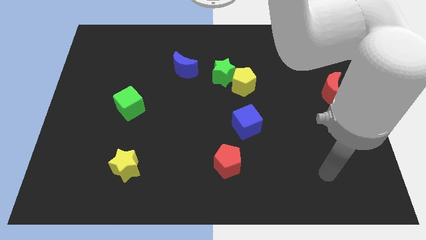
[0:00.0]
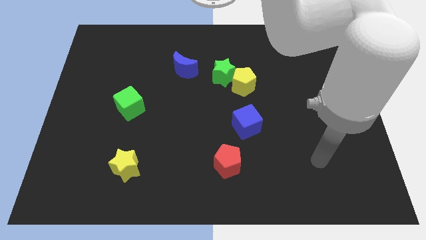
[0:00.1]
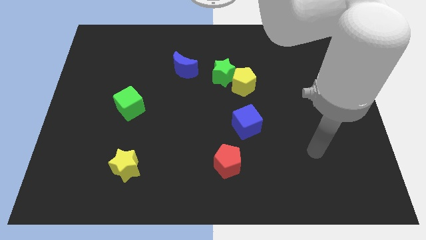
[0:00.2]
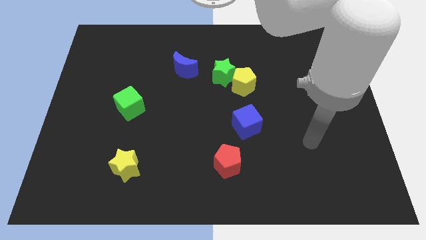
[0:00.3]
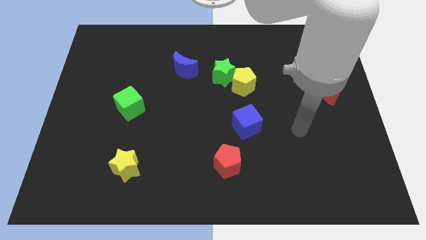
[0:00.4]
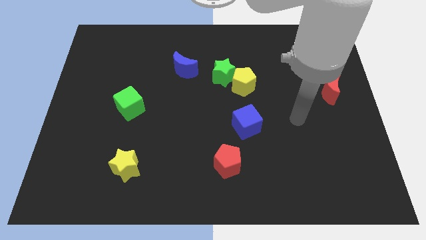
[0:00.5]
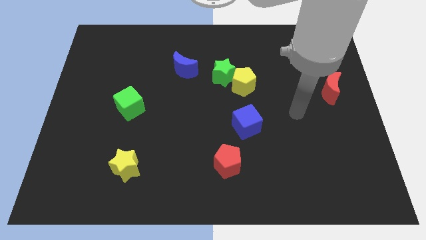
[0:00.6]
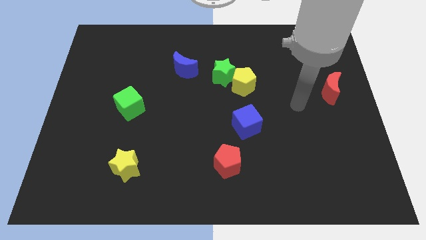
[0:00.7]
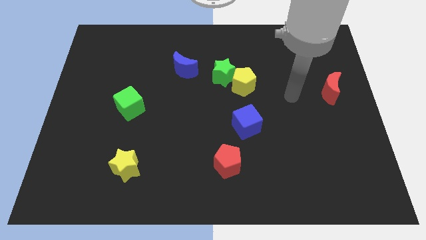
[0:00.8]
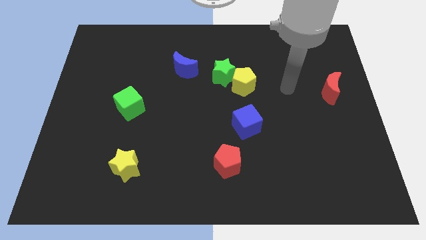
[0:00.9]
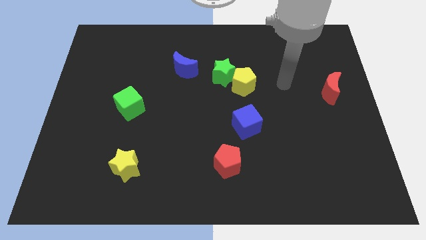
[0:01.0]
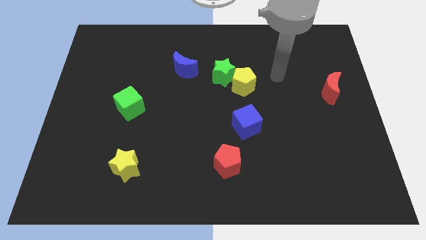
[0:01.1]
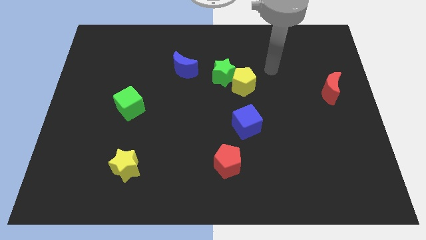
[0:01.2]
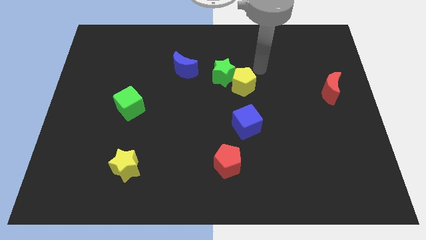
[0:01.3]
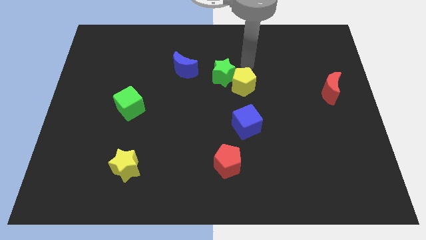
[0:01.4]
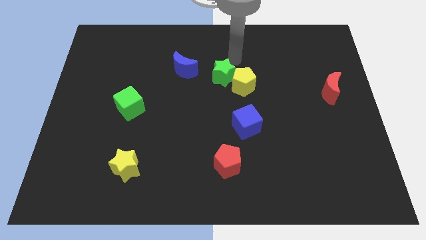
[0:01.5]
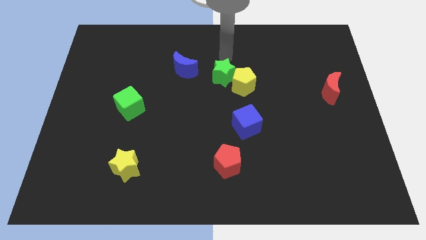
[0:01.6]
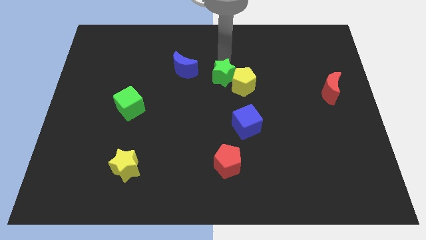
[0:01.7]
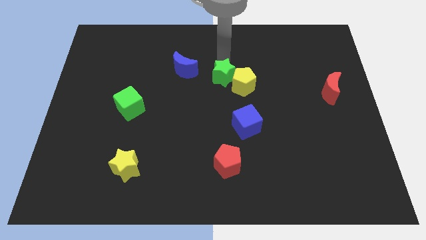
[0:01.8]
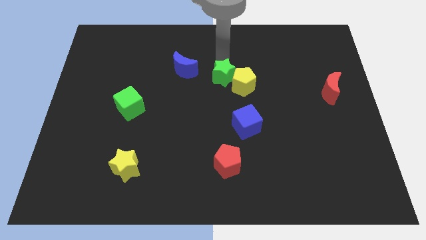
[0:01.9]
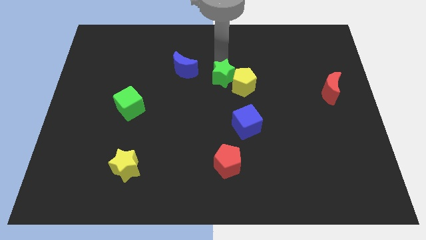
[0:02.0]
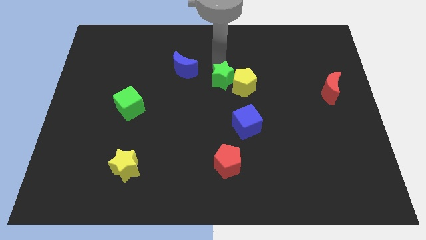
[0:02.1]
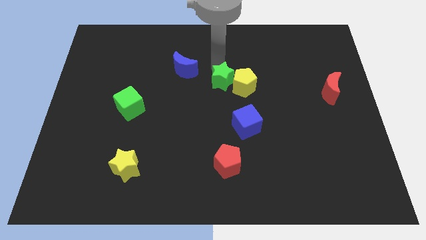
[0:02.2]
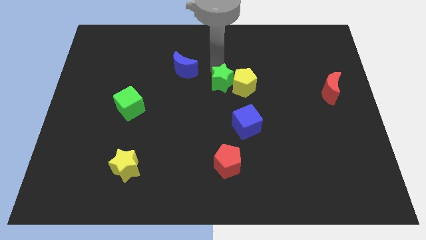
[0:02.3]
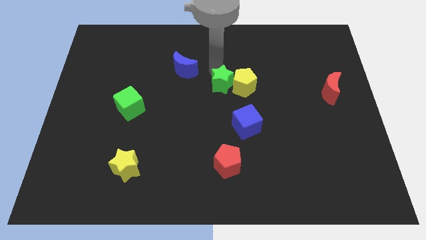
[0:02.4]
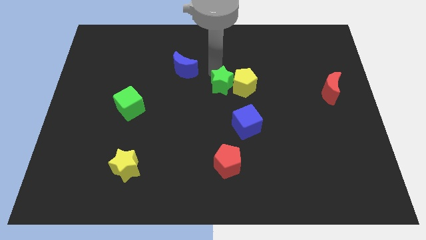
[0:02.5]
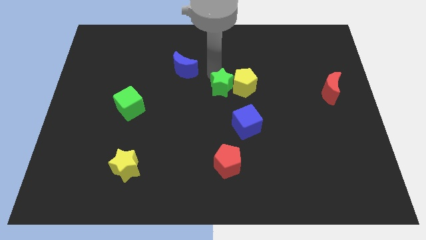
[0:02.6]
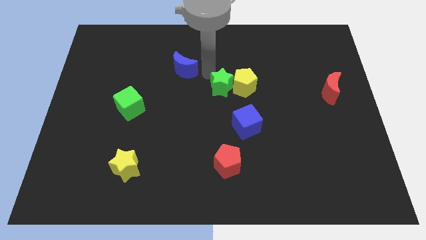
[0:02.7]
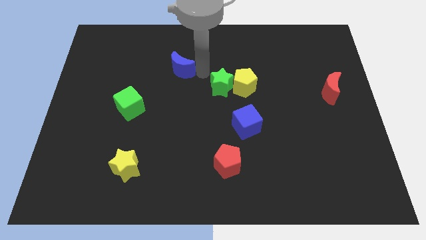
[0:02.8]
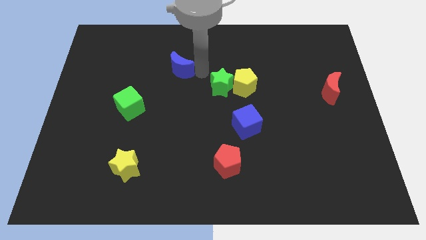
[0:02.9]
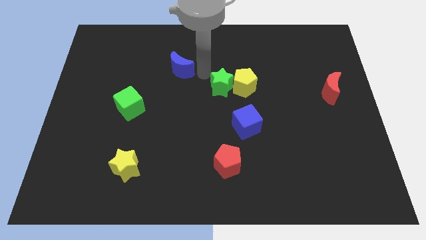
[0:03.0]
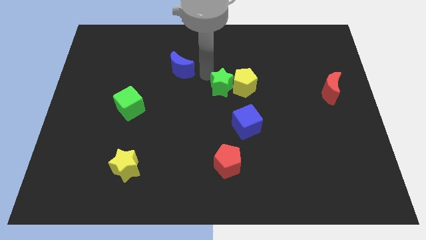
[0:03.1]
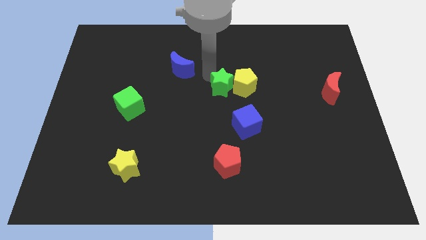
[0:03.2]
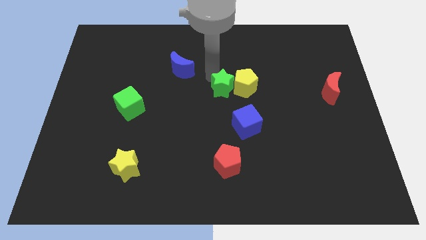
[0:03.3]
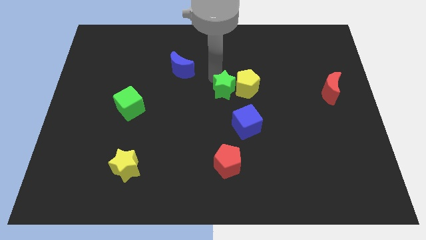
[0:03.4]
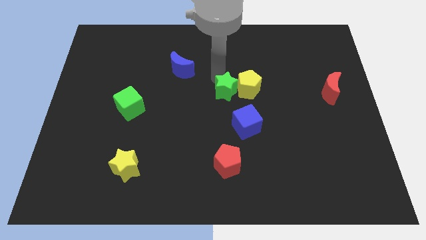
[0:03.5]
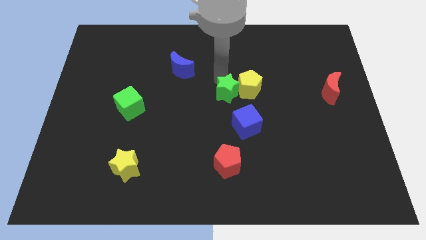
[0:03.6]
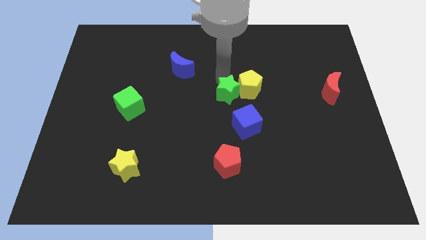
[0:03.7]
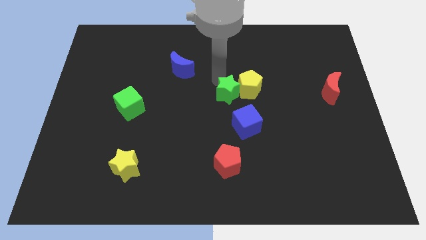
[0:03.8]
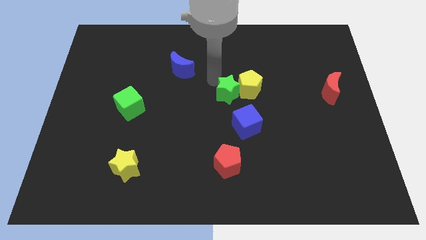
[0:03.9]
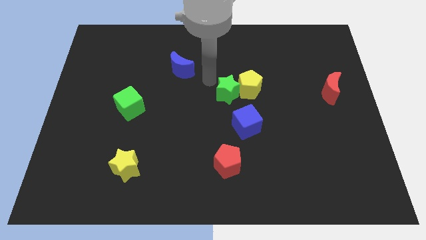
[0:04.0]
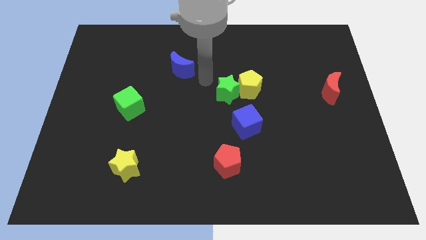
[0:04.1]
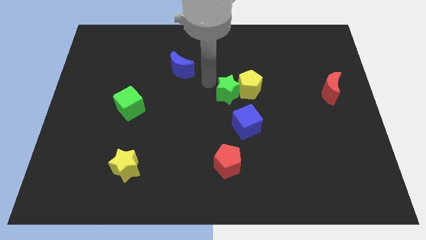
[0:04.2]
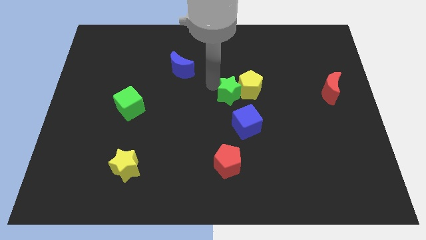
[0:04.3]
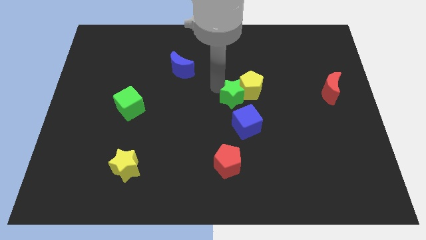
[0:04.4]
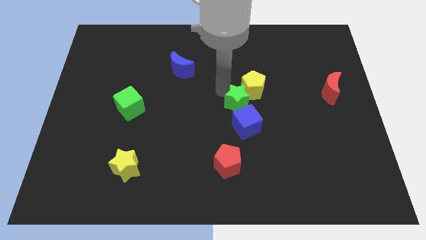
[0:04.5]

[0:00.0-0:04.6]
slide the green star a little downwards and to the right diagonally

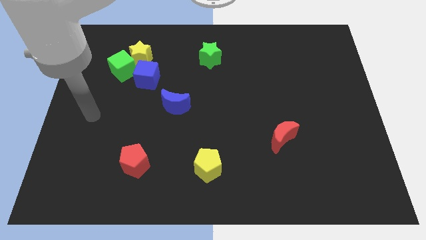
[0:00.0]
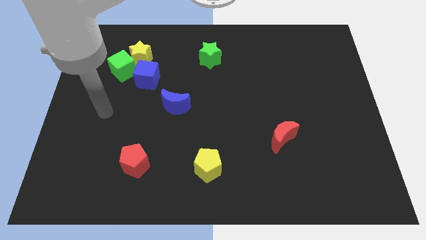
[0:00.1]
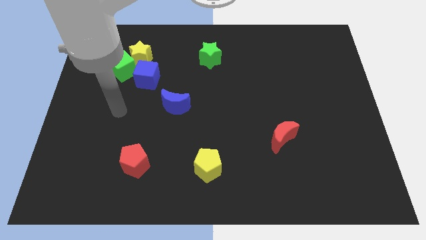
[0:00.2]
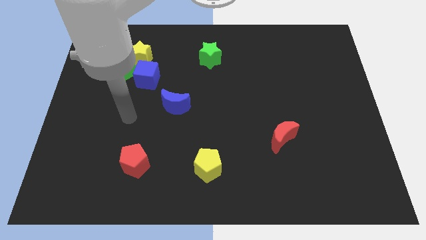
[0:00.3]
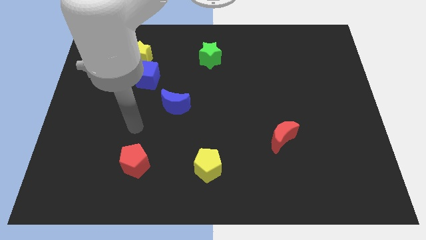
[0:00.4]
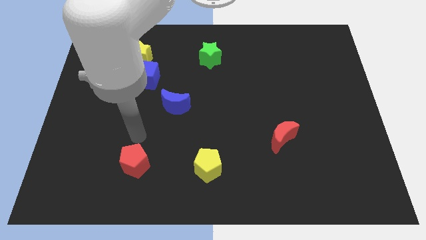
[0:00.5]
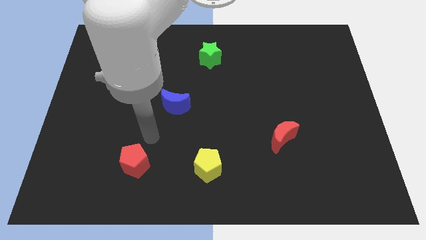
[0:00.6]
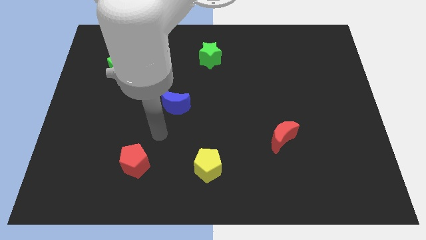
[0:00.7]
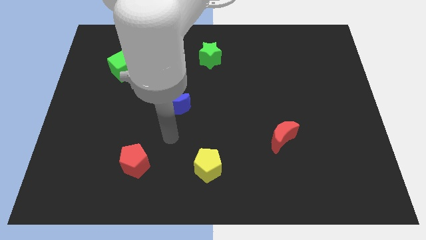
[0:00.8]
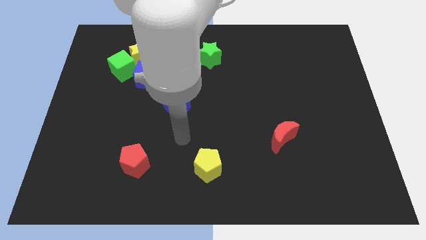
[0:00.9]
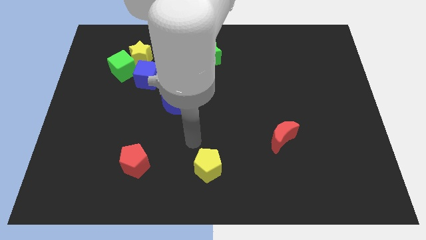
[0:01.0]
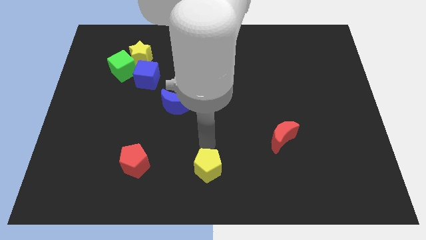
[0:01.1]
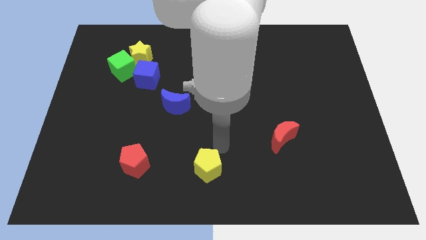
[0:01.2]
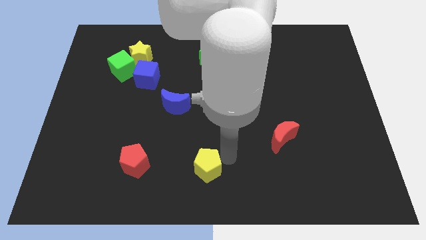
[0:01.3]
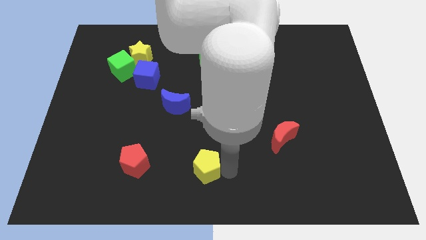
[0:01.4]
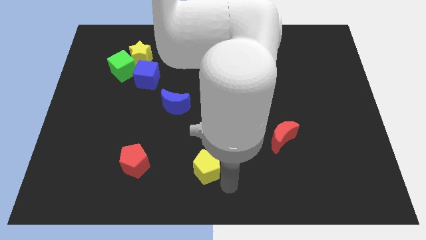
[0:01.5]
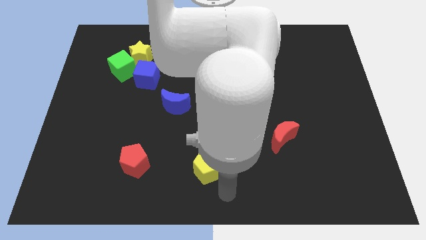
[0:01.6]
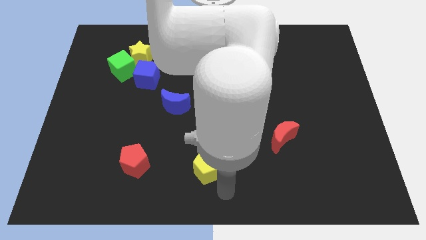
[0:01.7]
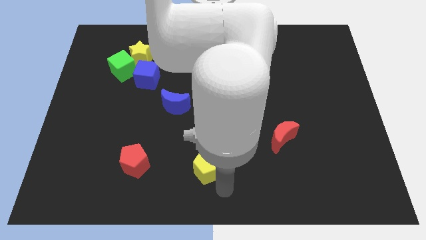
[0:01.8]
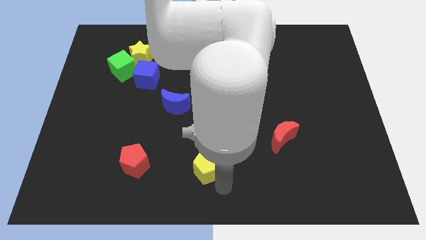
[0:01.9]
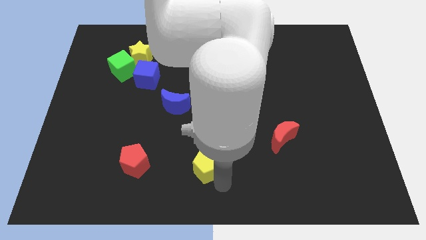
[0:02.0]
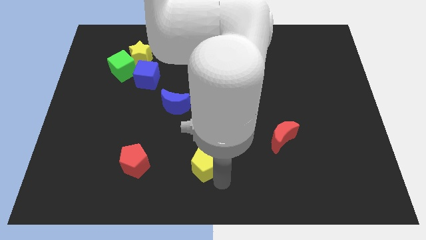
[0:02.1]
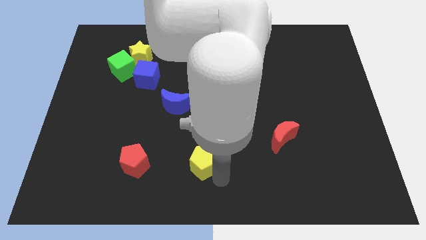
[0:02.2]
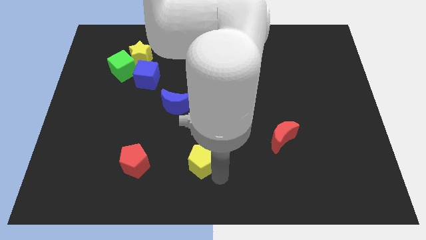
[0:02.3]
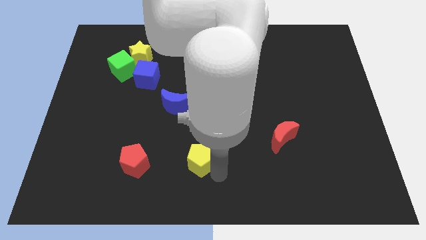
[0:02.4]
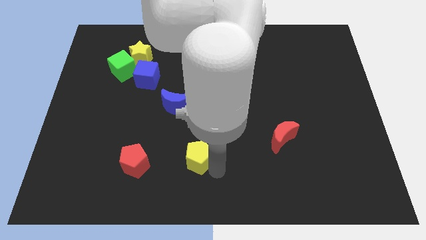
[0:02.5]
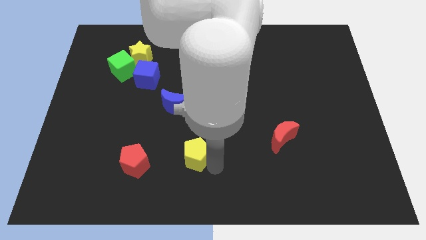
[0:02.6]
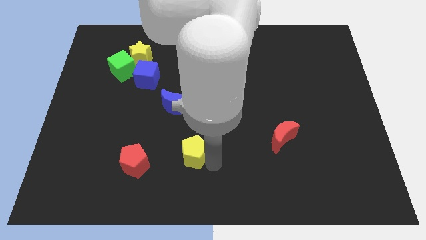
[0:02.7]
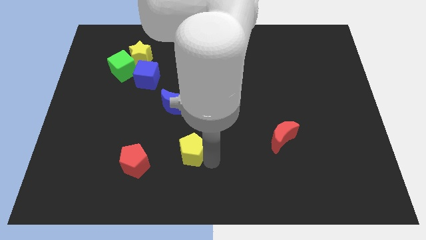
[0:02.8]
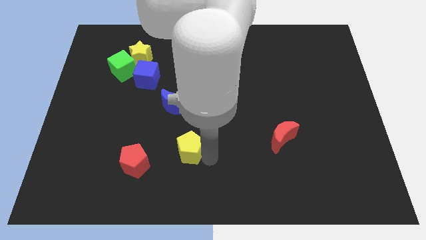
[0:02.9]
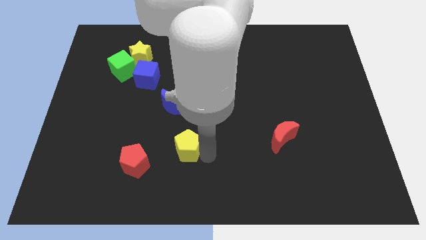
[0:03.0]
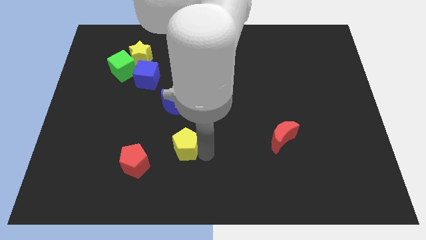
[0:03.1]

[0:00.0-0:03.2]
slide the yellow pentagon slightly diagonally upwards and left

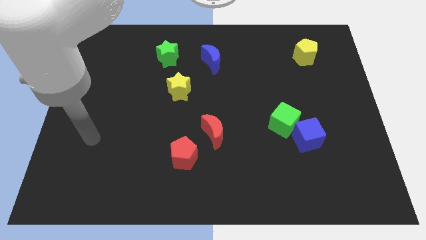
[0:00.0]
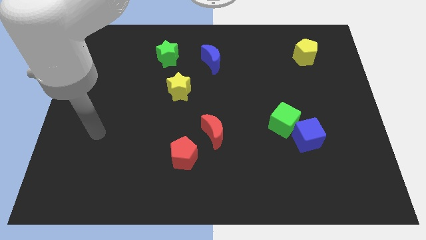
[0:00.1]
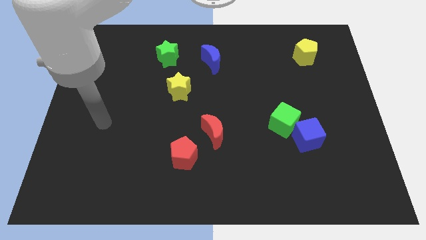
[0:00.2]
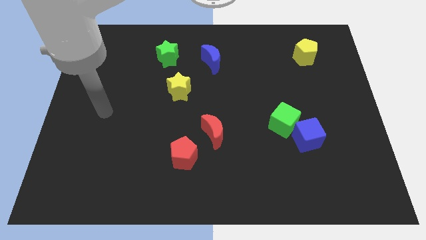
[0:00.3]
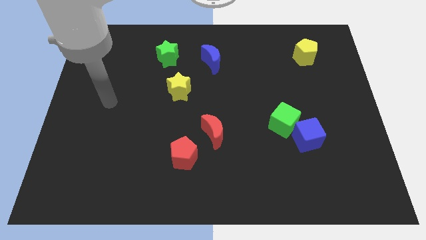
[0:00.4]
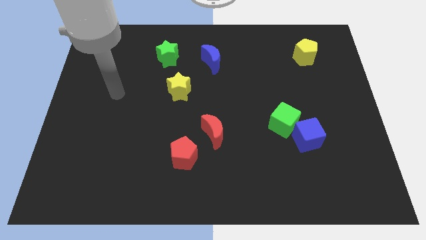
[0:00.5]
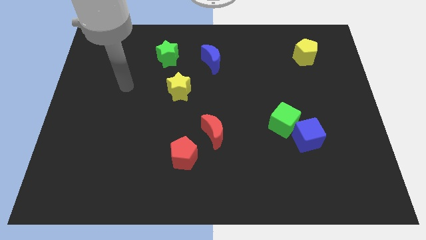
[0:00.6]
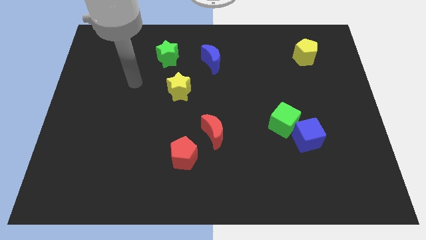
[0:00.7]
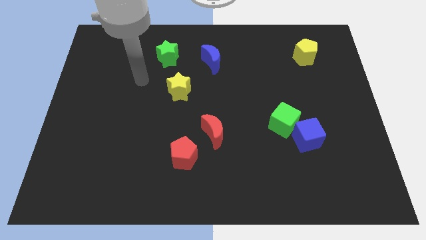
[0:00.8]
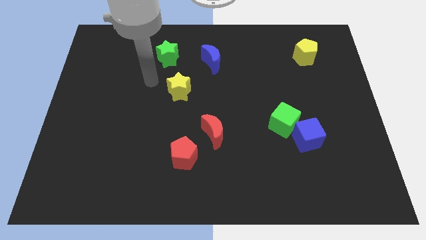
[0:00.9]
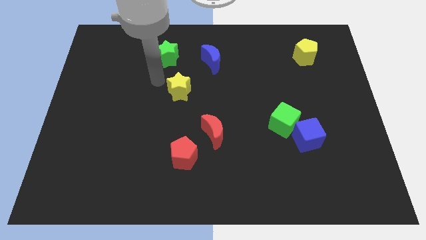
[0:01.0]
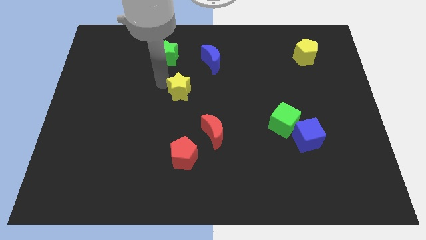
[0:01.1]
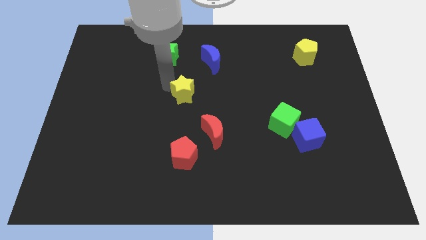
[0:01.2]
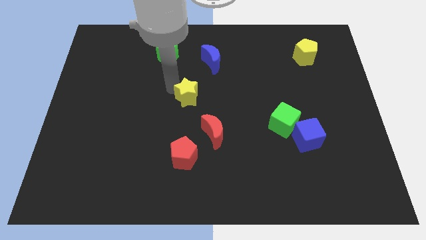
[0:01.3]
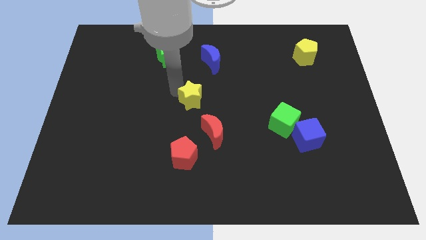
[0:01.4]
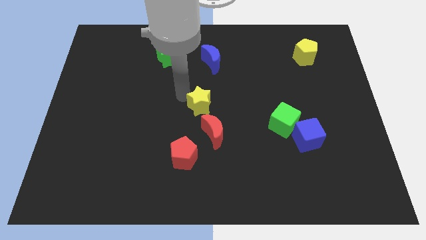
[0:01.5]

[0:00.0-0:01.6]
push the yellow star somewhat downwards and right diagonally
